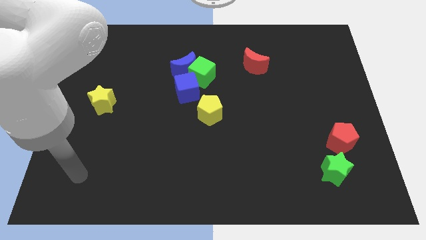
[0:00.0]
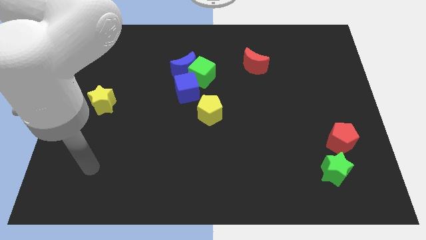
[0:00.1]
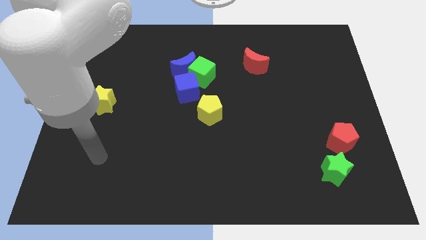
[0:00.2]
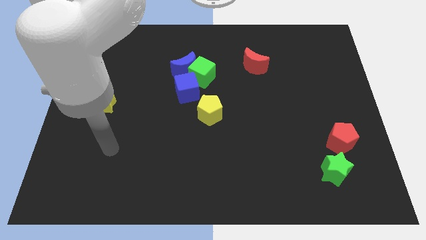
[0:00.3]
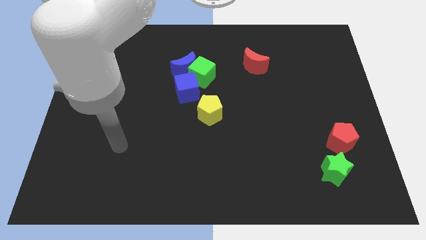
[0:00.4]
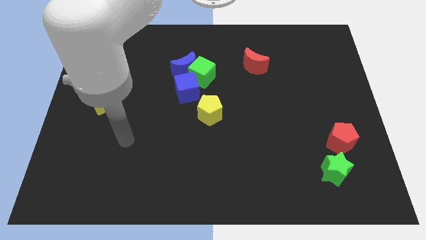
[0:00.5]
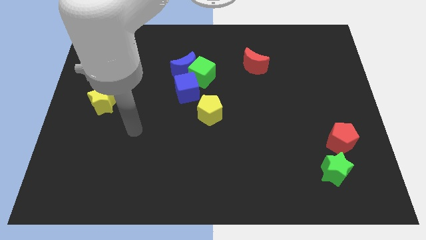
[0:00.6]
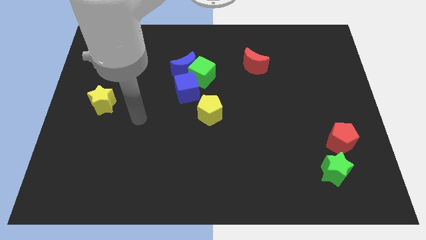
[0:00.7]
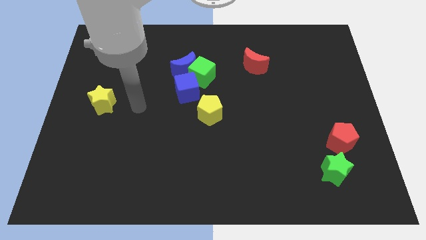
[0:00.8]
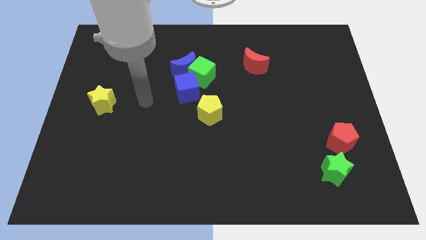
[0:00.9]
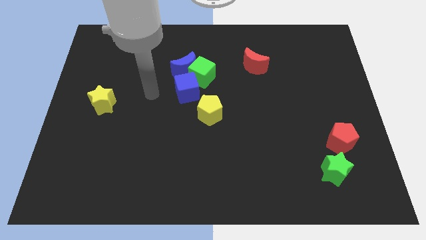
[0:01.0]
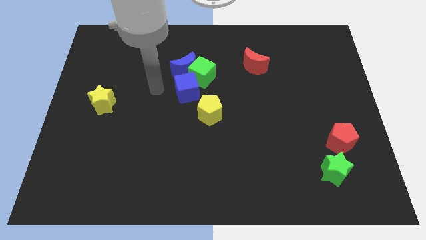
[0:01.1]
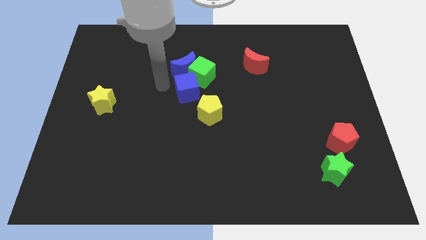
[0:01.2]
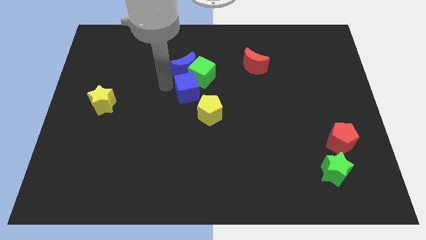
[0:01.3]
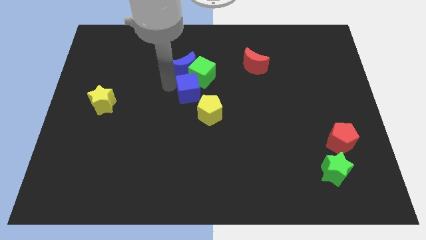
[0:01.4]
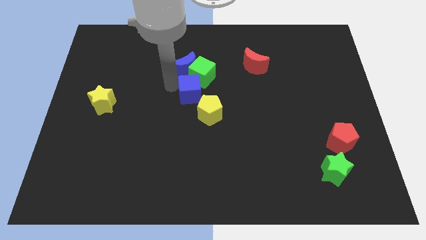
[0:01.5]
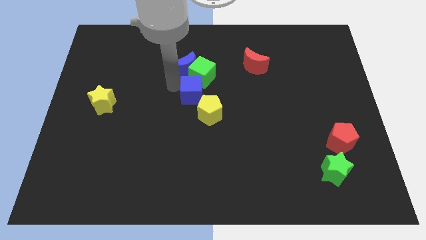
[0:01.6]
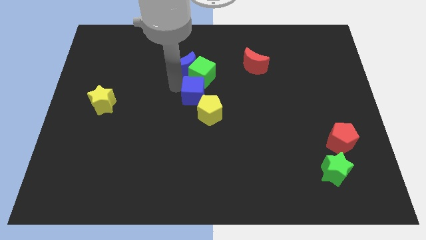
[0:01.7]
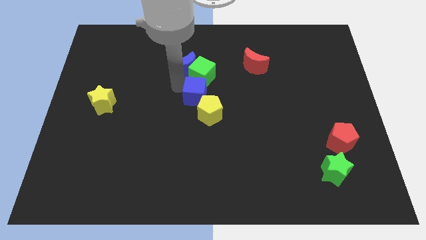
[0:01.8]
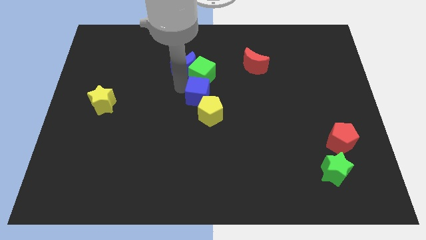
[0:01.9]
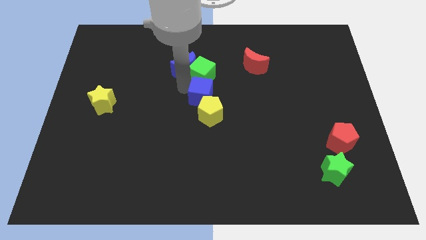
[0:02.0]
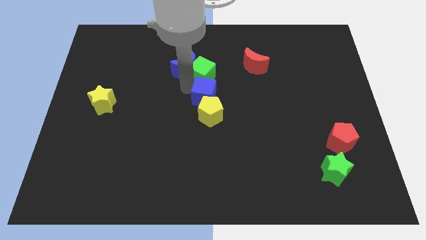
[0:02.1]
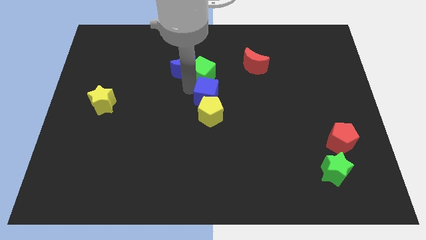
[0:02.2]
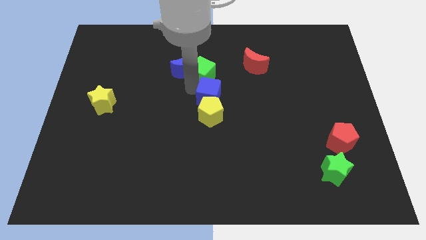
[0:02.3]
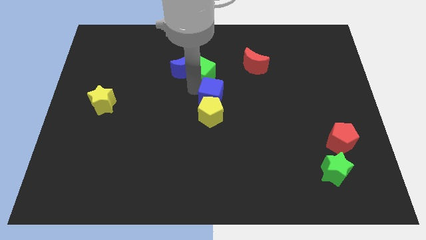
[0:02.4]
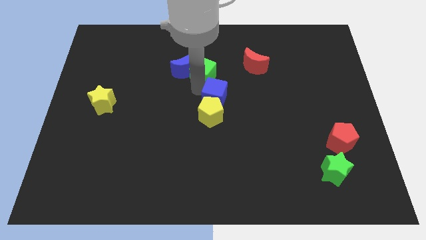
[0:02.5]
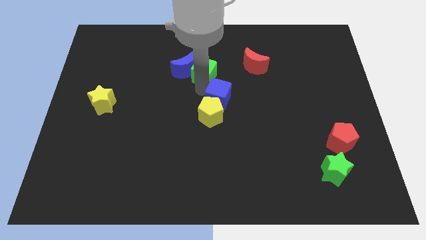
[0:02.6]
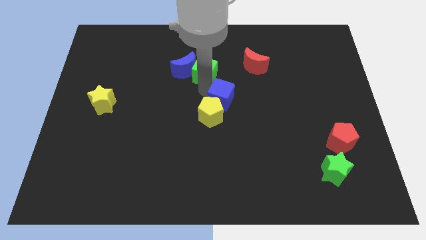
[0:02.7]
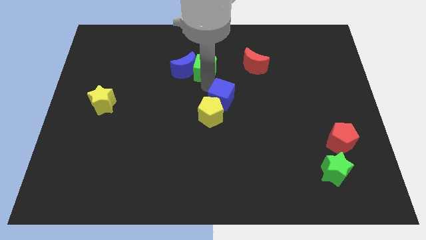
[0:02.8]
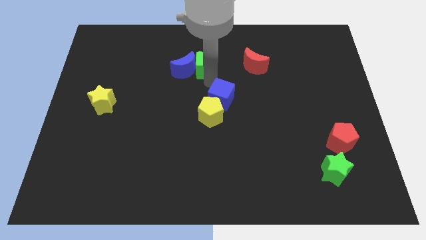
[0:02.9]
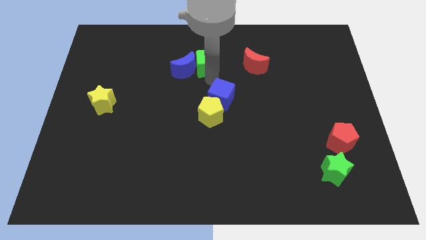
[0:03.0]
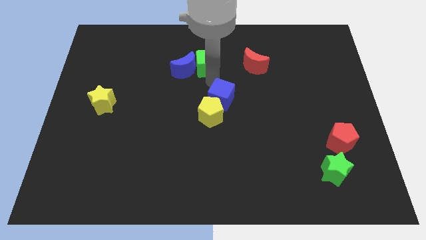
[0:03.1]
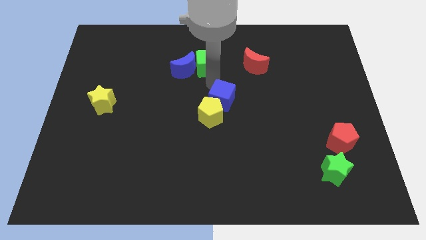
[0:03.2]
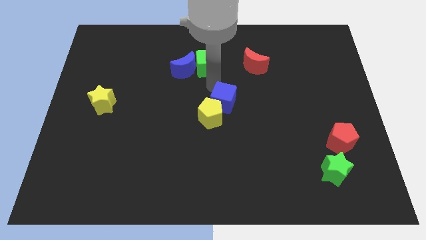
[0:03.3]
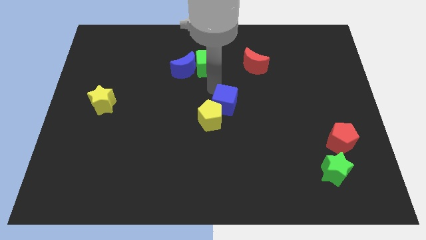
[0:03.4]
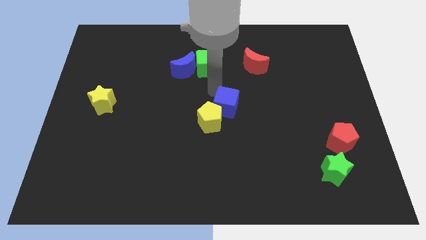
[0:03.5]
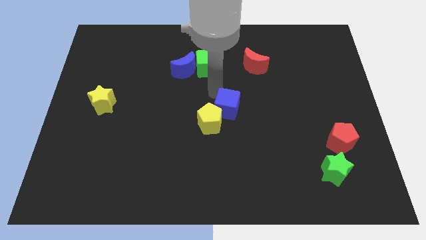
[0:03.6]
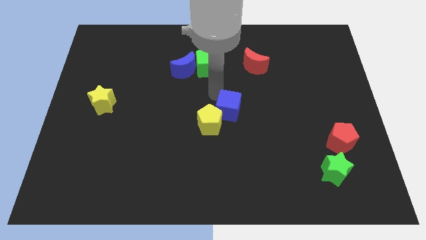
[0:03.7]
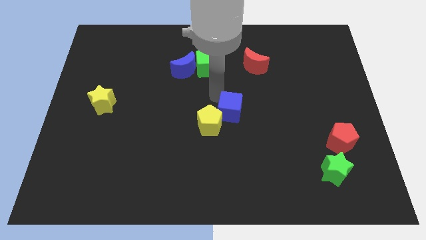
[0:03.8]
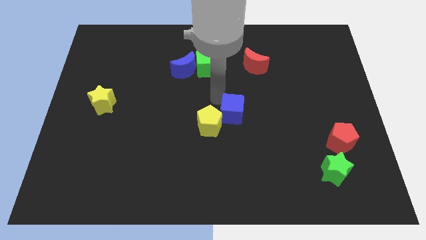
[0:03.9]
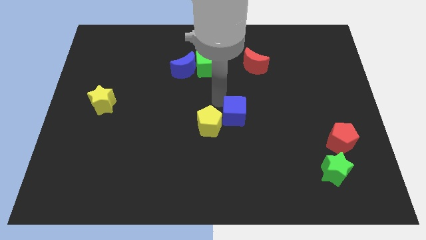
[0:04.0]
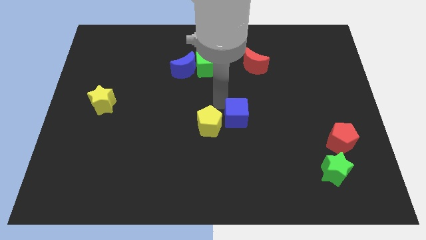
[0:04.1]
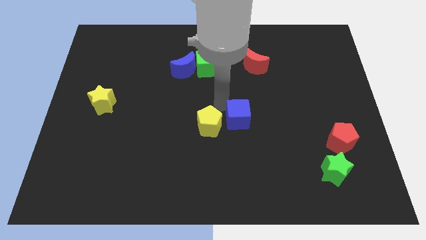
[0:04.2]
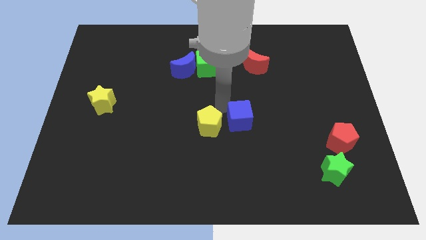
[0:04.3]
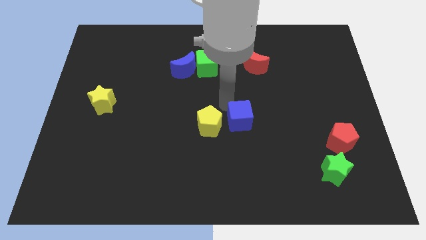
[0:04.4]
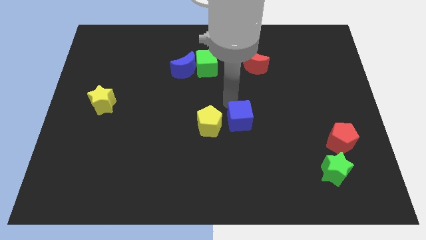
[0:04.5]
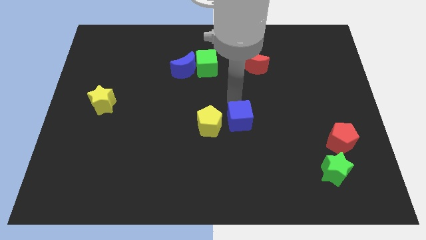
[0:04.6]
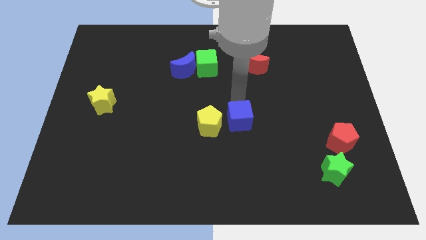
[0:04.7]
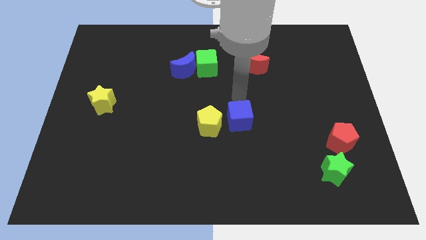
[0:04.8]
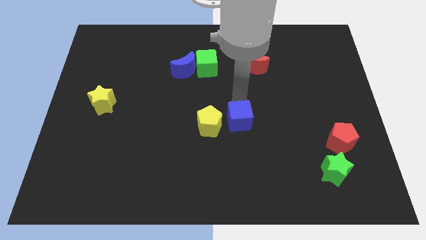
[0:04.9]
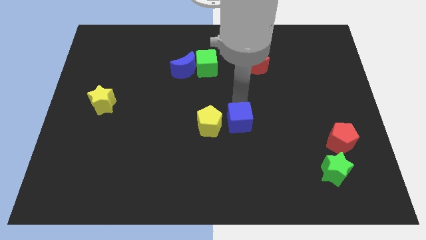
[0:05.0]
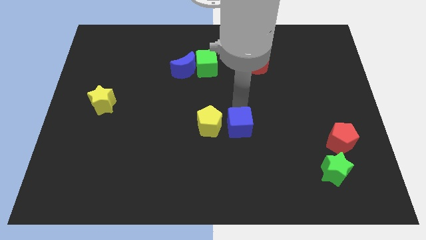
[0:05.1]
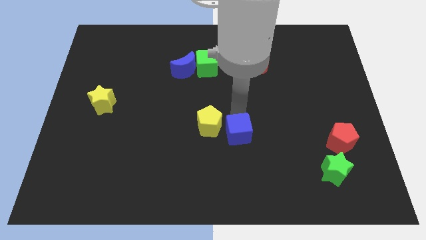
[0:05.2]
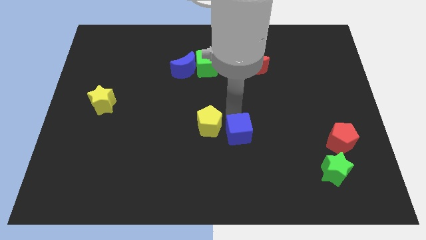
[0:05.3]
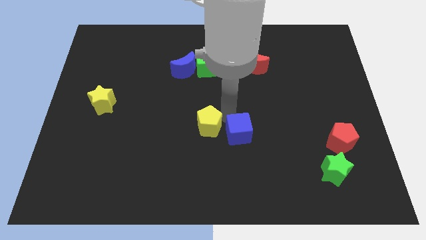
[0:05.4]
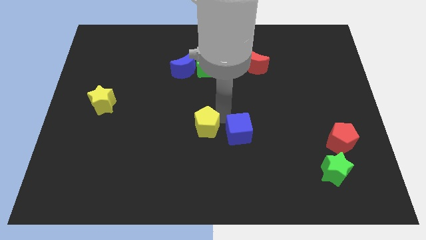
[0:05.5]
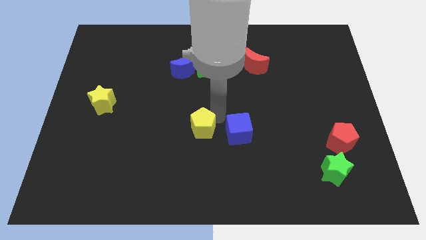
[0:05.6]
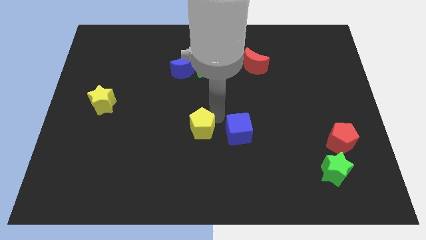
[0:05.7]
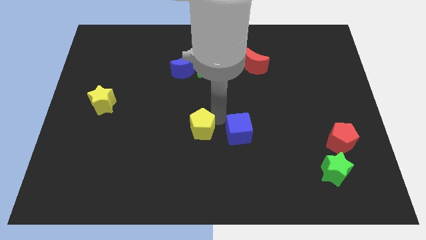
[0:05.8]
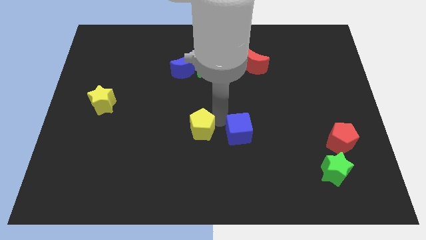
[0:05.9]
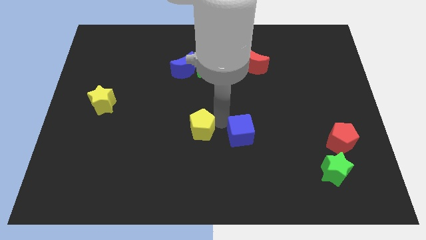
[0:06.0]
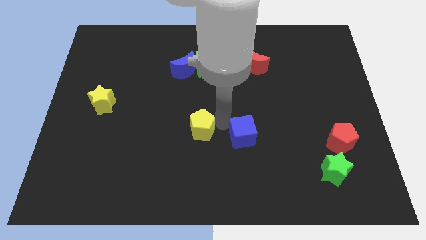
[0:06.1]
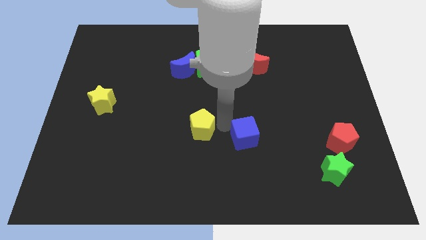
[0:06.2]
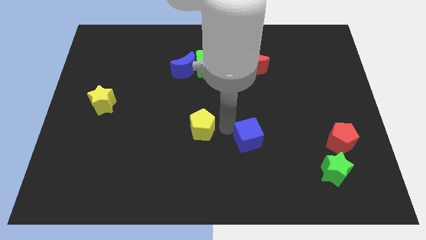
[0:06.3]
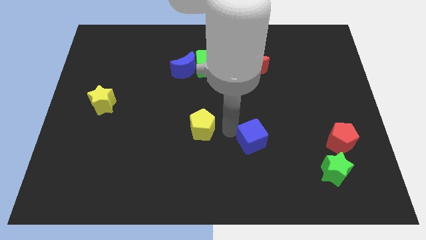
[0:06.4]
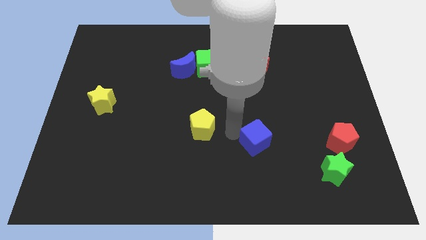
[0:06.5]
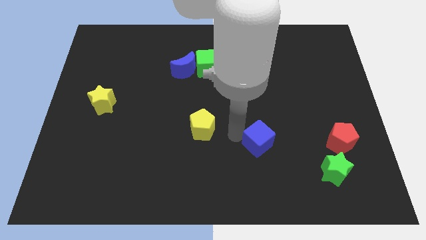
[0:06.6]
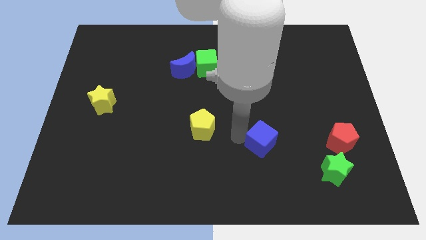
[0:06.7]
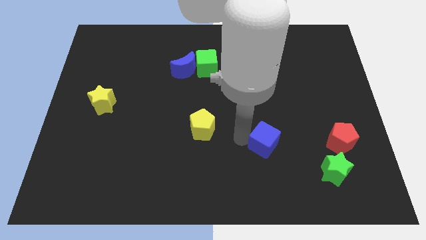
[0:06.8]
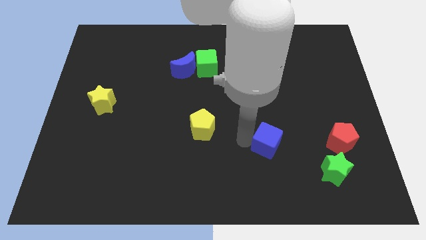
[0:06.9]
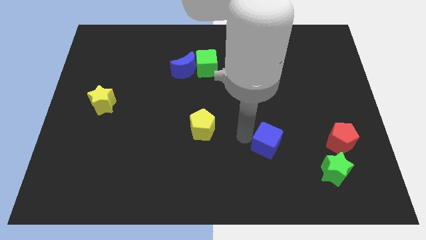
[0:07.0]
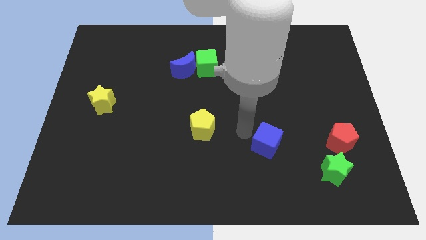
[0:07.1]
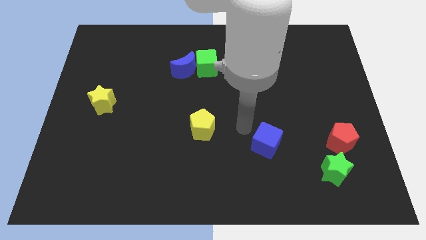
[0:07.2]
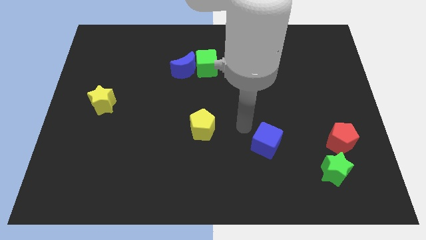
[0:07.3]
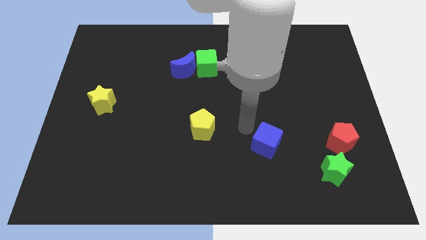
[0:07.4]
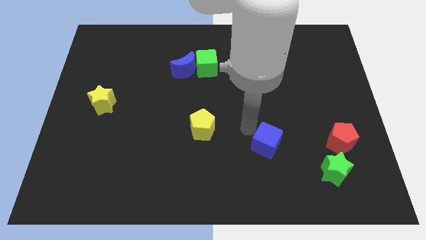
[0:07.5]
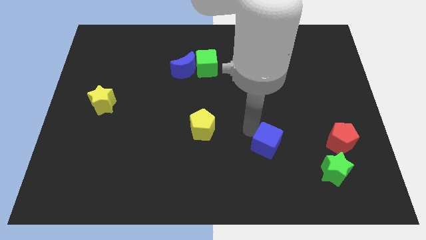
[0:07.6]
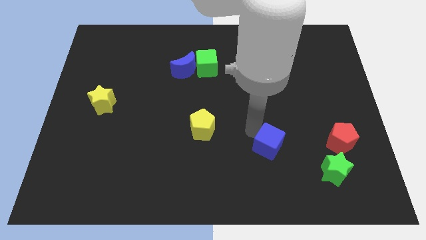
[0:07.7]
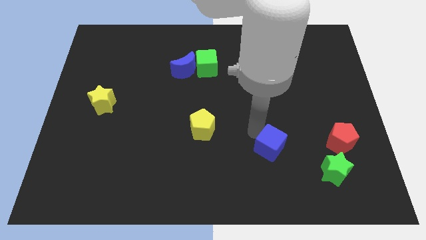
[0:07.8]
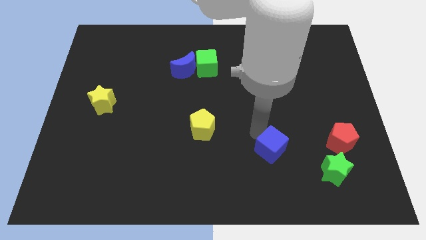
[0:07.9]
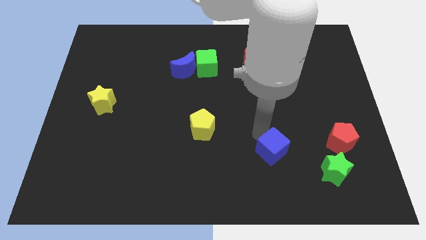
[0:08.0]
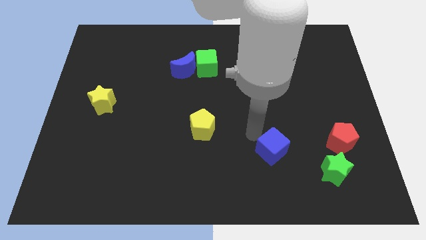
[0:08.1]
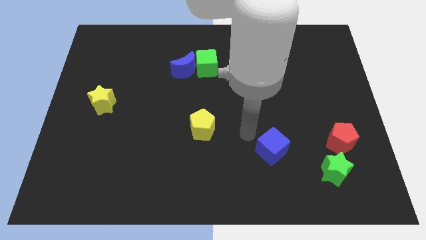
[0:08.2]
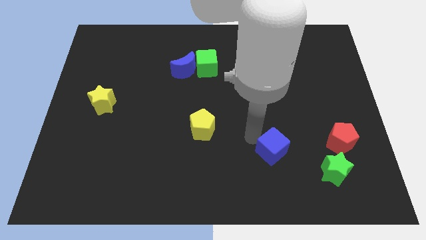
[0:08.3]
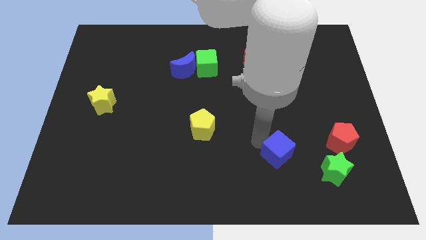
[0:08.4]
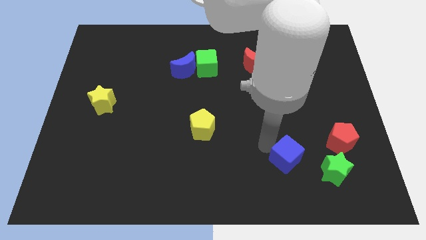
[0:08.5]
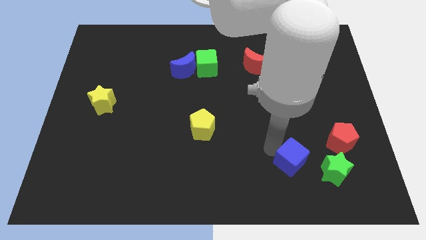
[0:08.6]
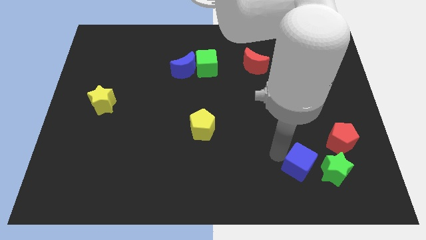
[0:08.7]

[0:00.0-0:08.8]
put the blue cube to the bottom left of the red pentagon
